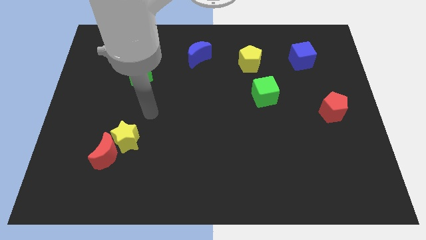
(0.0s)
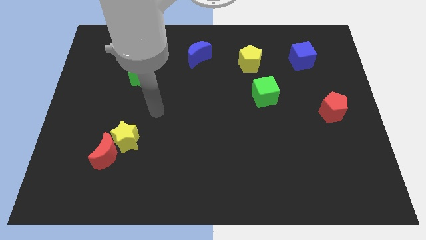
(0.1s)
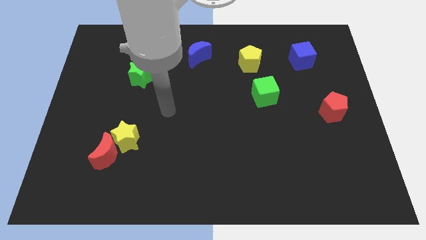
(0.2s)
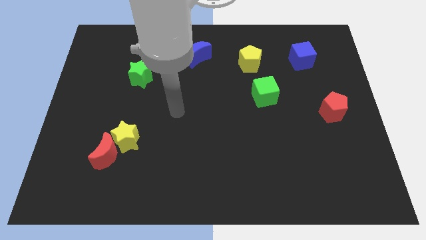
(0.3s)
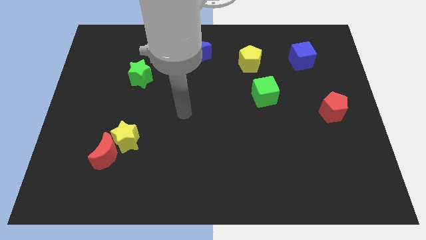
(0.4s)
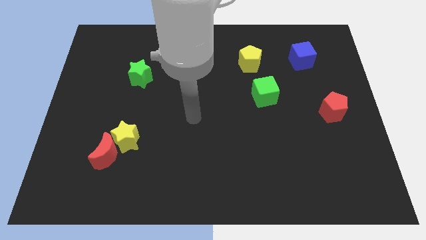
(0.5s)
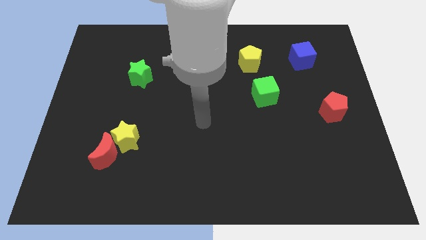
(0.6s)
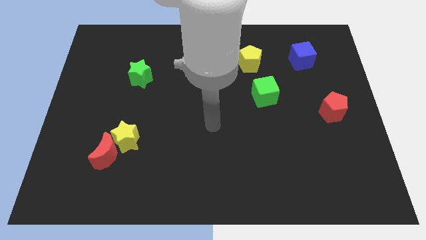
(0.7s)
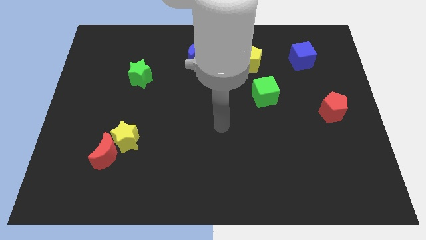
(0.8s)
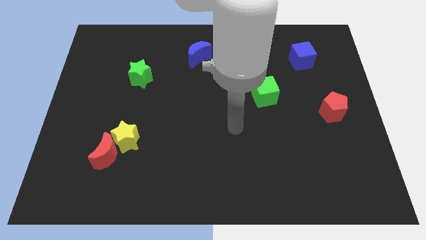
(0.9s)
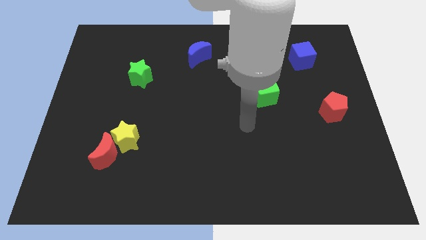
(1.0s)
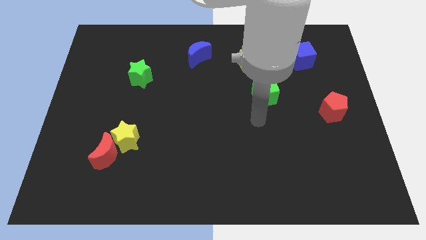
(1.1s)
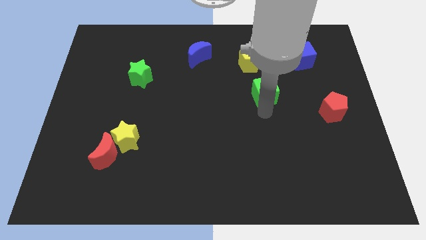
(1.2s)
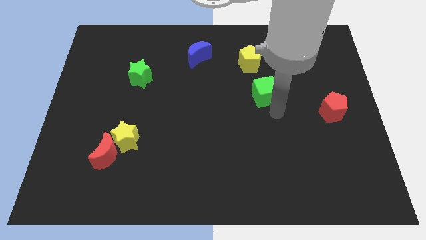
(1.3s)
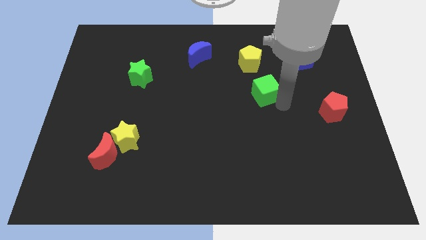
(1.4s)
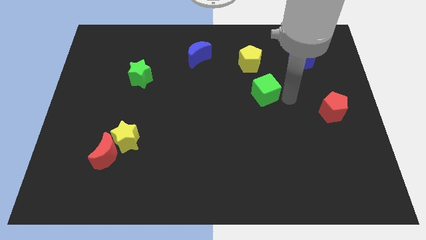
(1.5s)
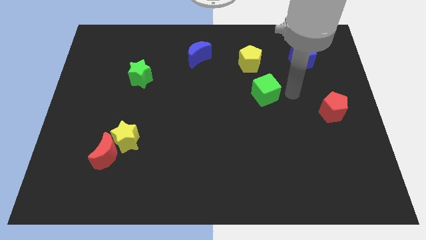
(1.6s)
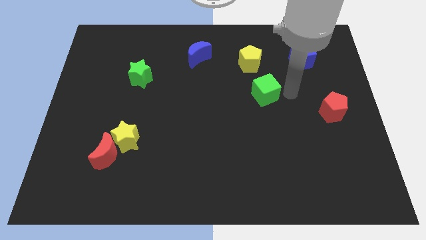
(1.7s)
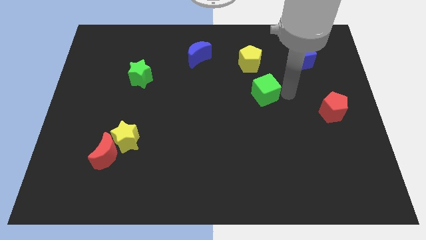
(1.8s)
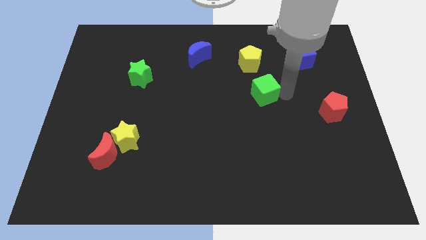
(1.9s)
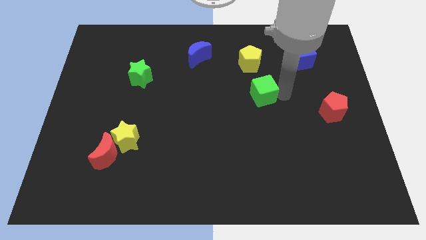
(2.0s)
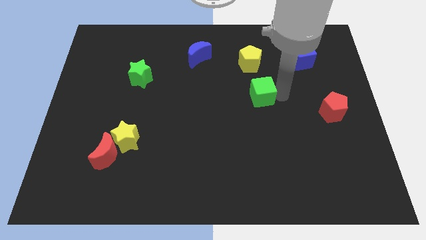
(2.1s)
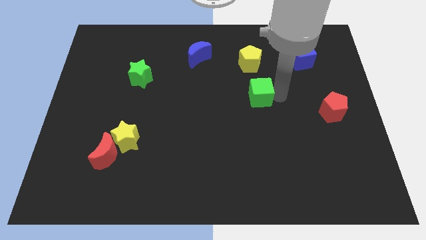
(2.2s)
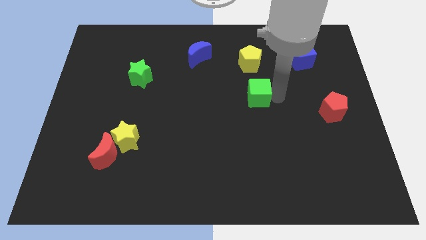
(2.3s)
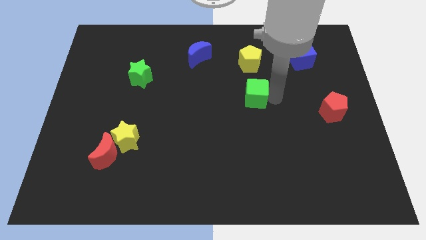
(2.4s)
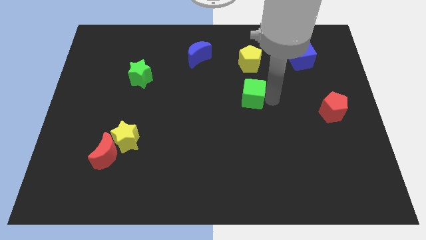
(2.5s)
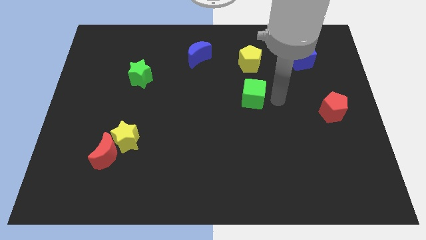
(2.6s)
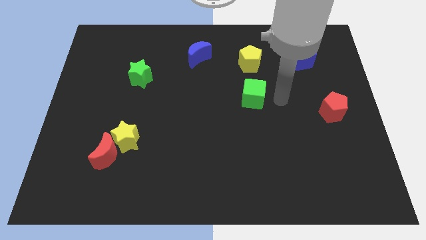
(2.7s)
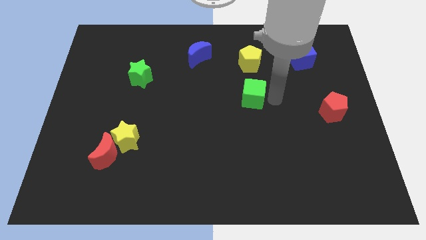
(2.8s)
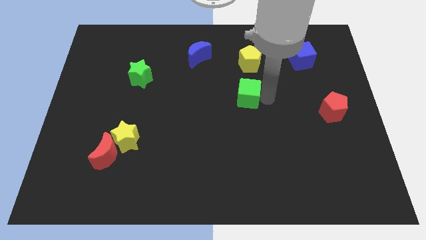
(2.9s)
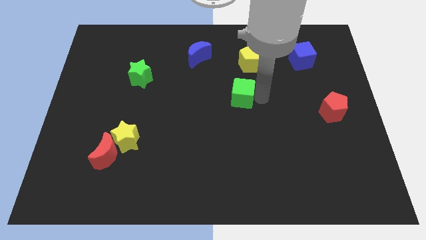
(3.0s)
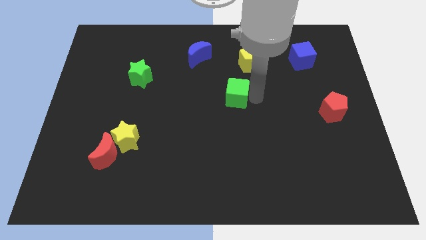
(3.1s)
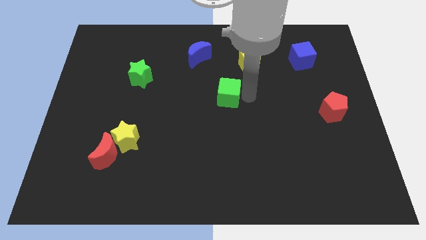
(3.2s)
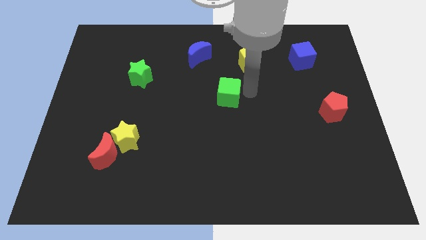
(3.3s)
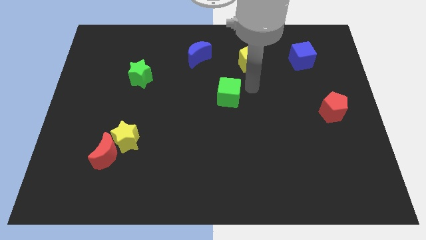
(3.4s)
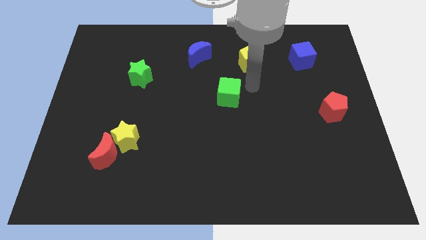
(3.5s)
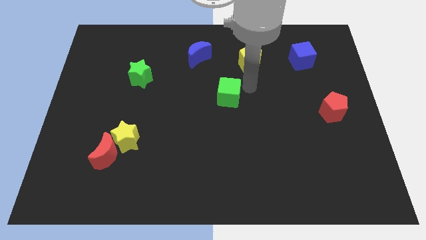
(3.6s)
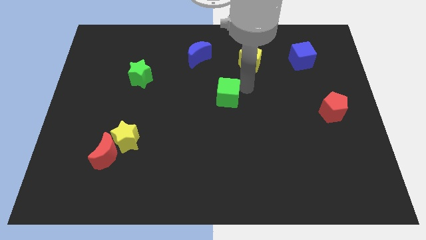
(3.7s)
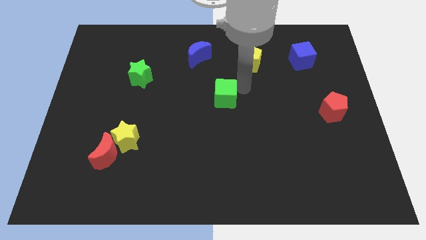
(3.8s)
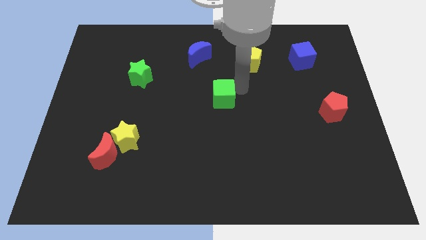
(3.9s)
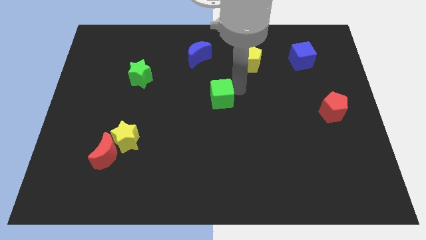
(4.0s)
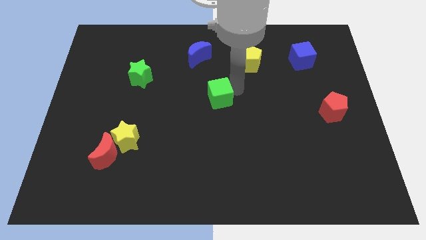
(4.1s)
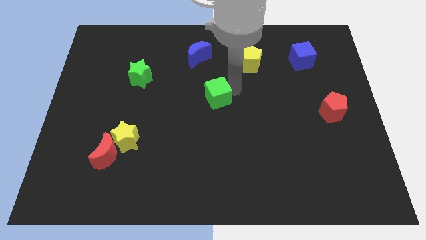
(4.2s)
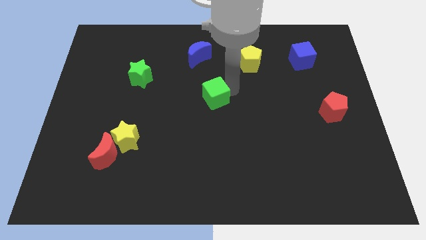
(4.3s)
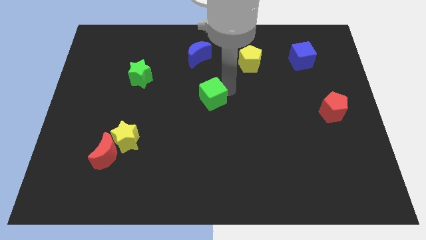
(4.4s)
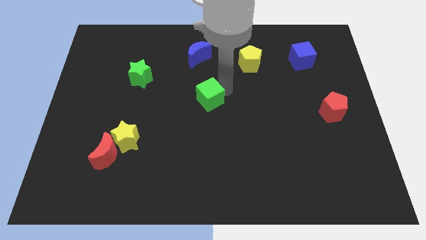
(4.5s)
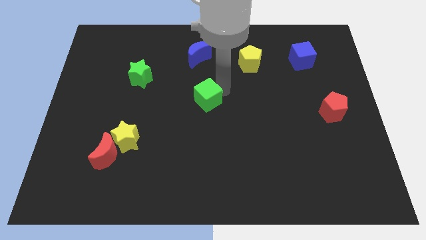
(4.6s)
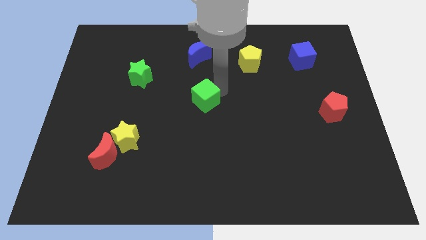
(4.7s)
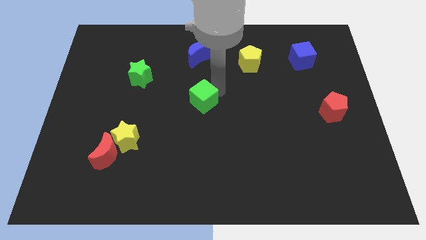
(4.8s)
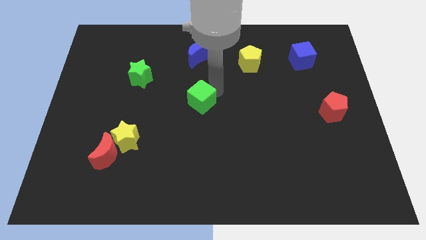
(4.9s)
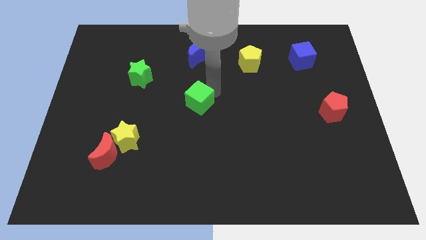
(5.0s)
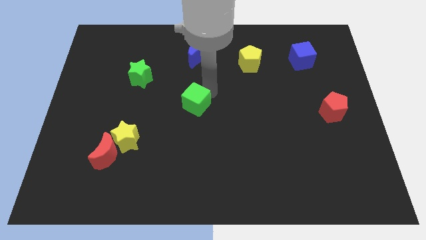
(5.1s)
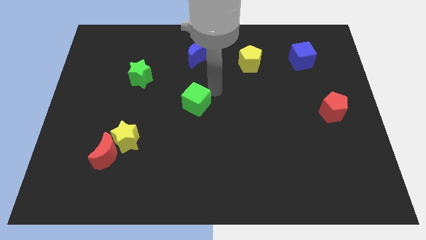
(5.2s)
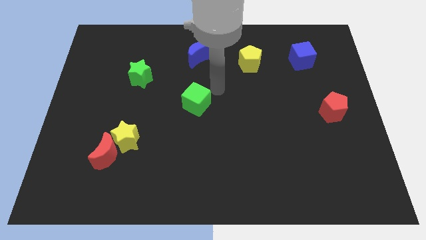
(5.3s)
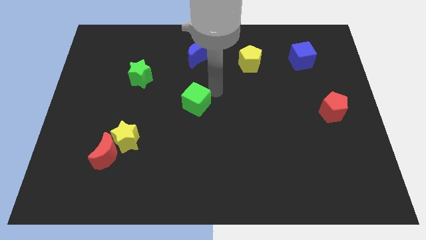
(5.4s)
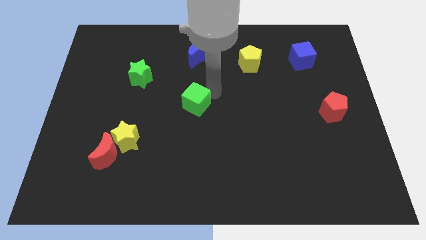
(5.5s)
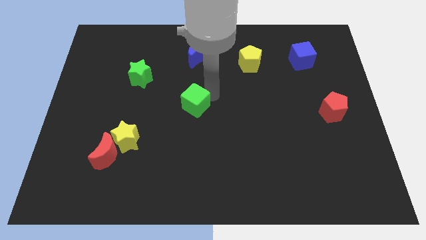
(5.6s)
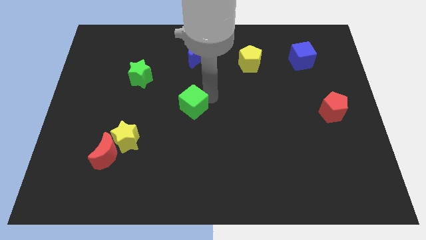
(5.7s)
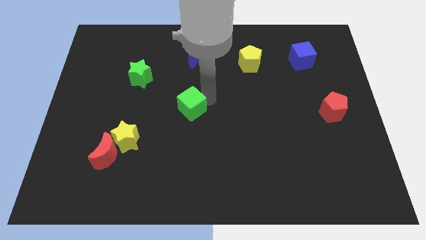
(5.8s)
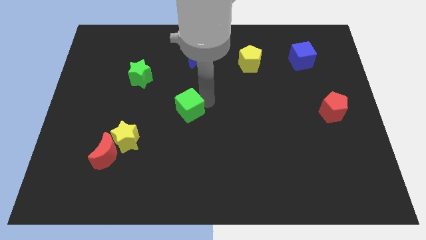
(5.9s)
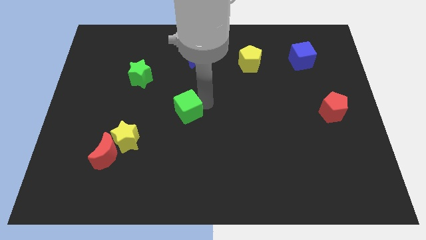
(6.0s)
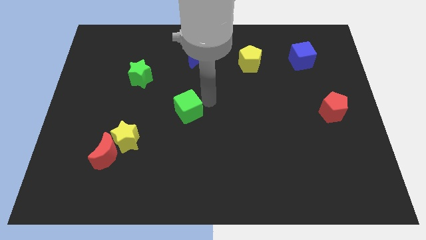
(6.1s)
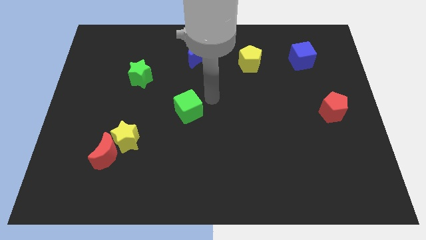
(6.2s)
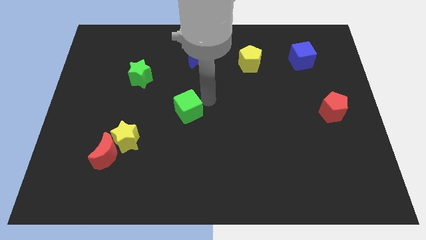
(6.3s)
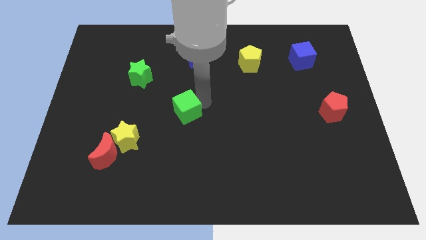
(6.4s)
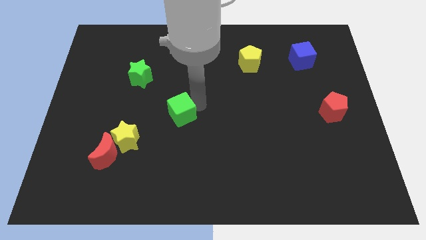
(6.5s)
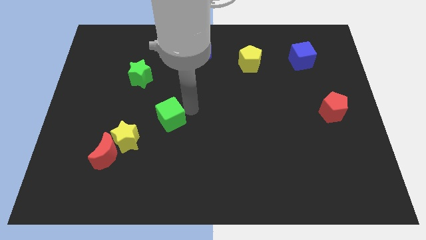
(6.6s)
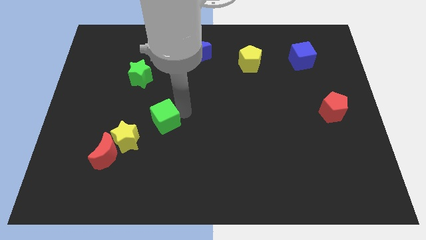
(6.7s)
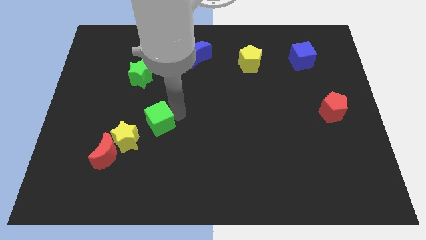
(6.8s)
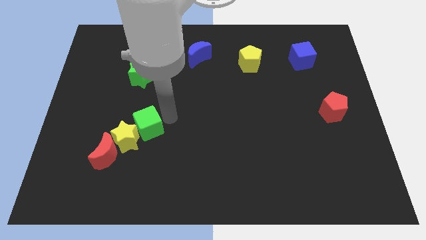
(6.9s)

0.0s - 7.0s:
put the green cube close to the yellow star

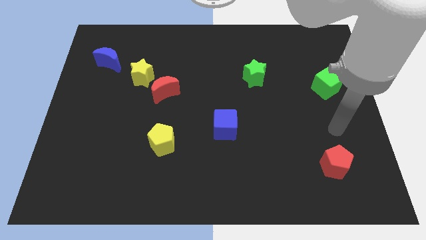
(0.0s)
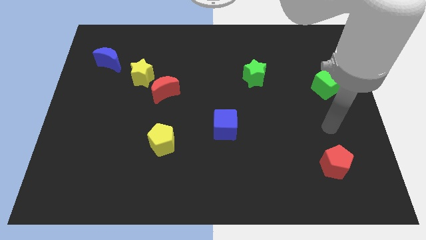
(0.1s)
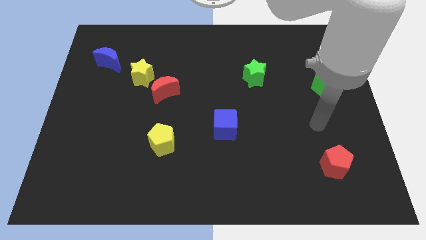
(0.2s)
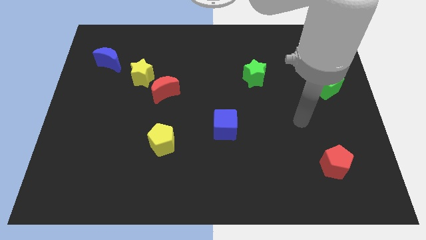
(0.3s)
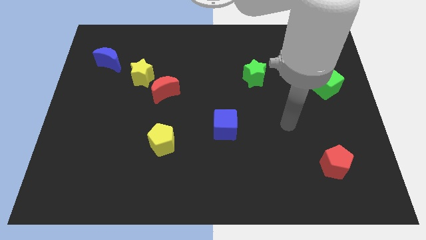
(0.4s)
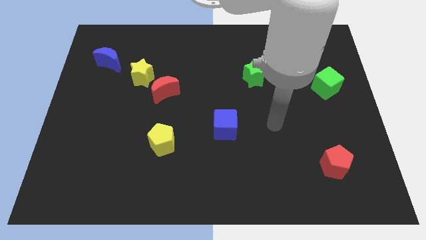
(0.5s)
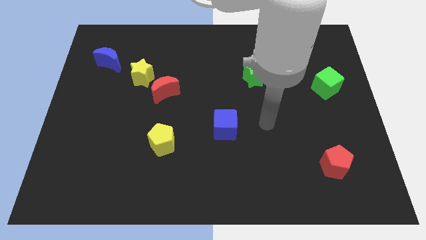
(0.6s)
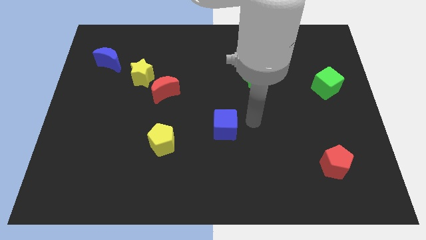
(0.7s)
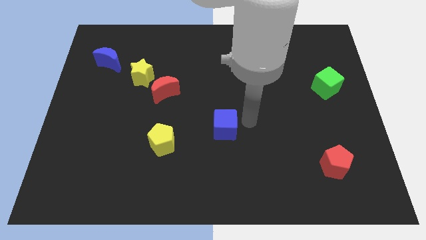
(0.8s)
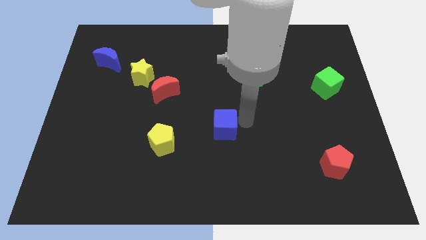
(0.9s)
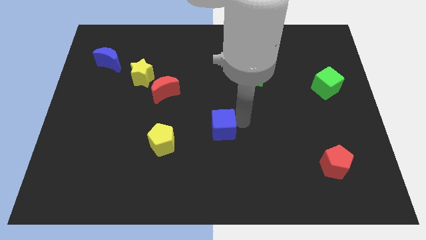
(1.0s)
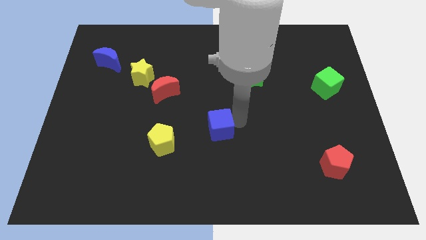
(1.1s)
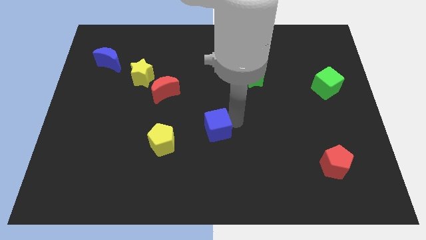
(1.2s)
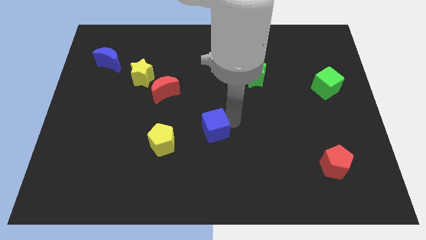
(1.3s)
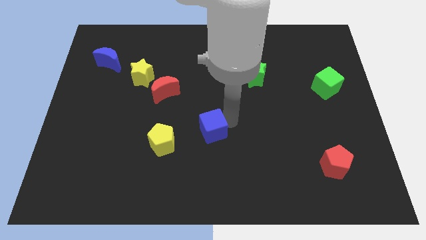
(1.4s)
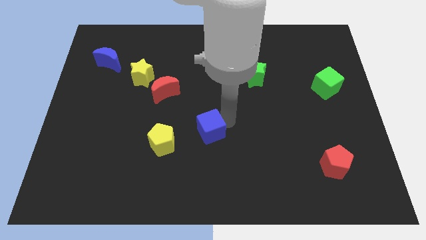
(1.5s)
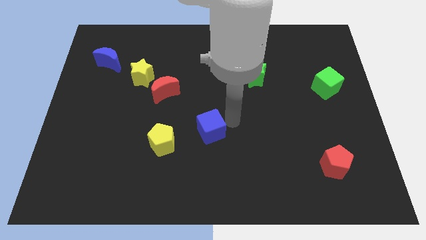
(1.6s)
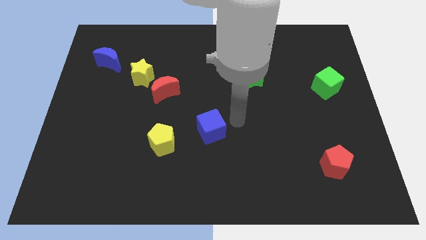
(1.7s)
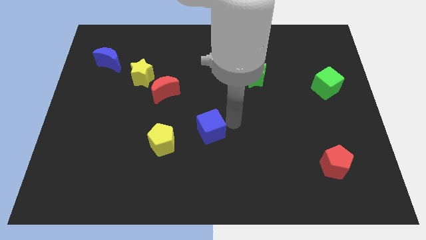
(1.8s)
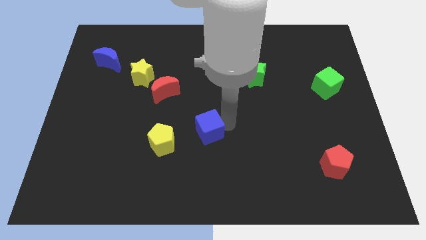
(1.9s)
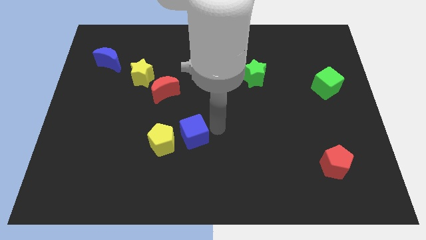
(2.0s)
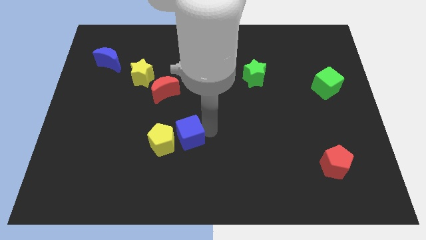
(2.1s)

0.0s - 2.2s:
slide the blue cube to the yellow pentagon
